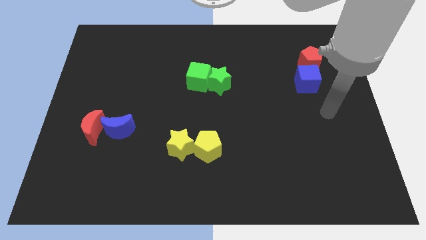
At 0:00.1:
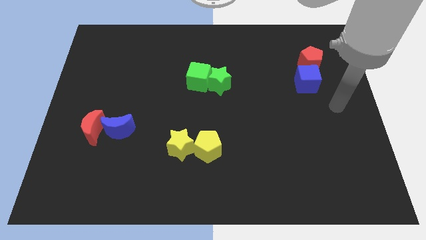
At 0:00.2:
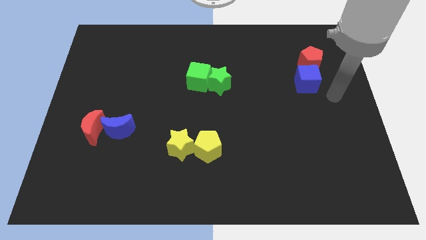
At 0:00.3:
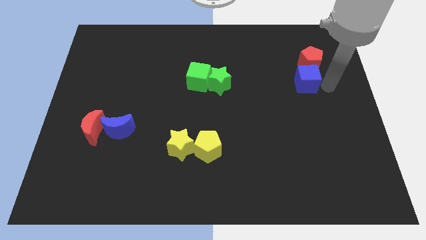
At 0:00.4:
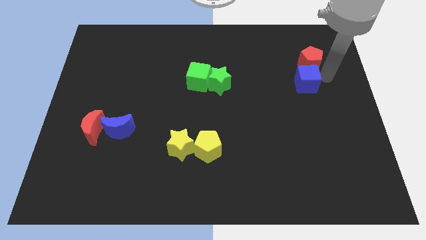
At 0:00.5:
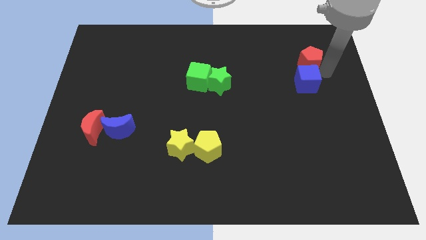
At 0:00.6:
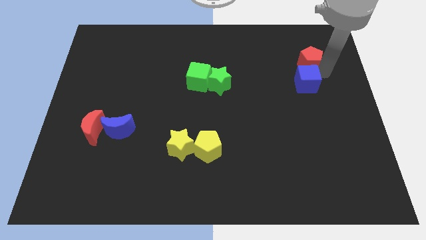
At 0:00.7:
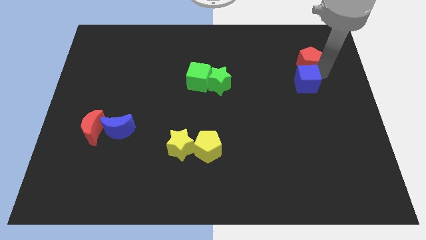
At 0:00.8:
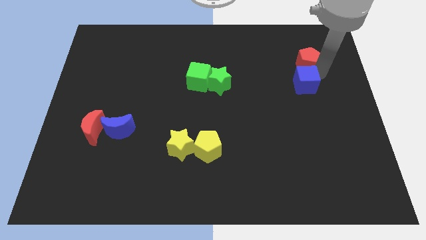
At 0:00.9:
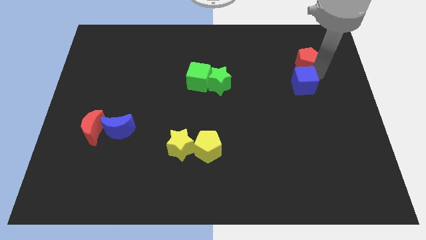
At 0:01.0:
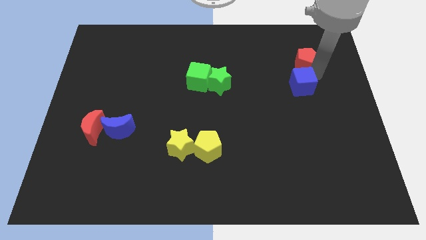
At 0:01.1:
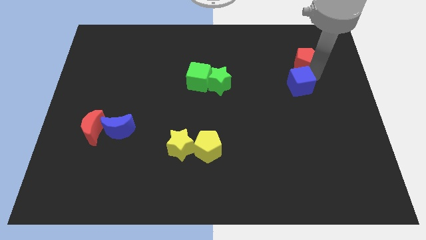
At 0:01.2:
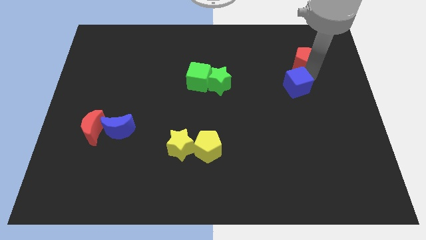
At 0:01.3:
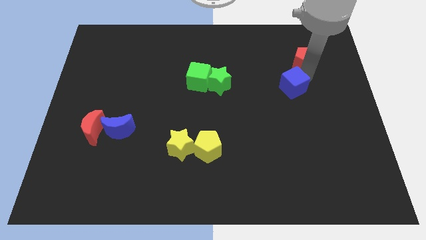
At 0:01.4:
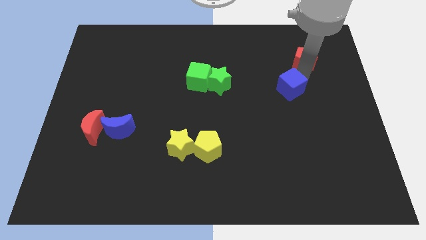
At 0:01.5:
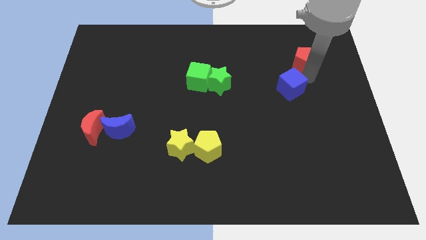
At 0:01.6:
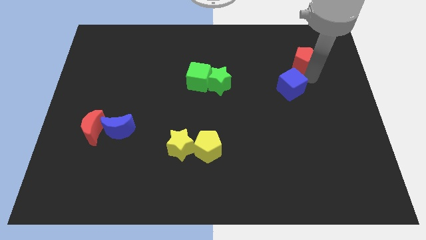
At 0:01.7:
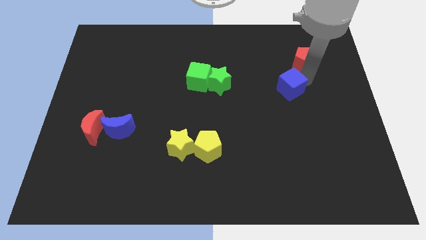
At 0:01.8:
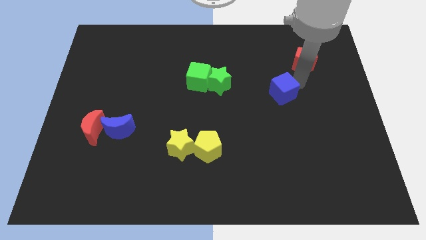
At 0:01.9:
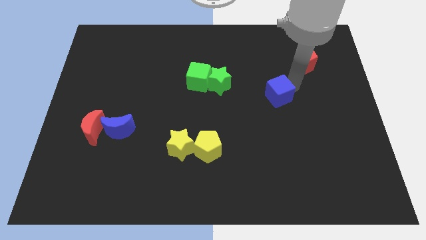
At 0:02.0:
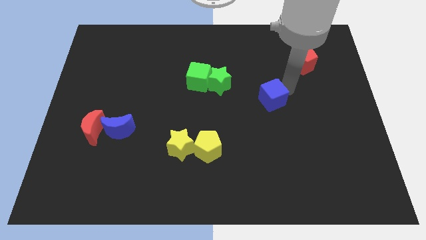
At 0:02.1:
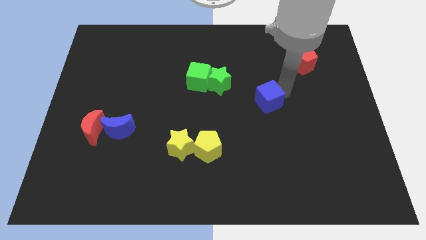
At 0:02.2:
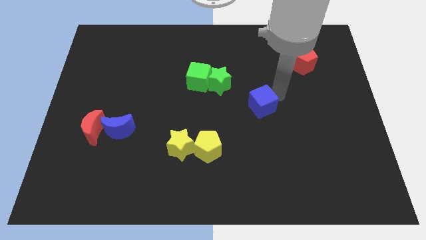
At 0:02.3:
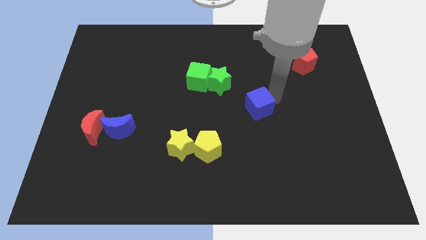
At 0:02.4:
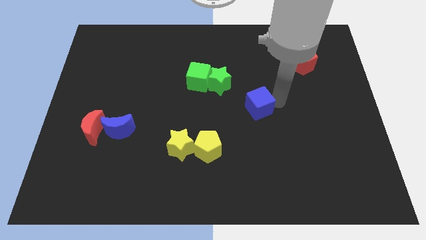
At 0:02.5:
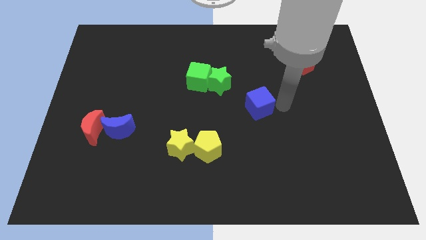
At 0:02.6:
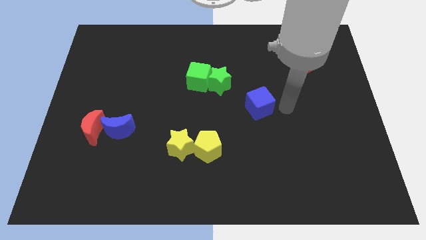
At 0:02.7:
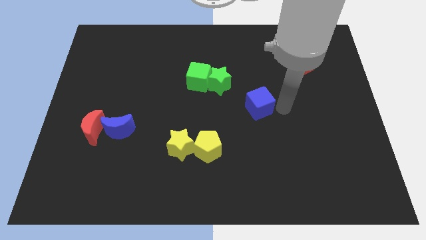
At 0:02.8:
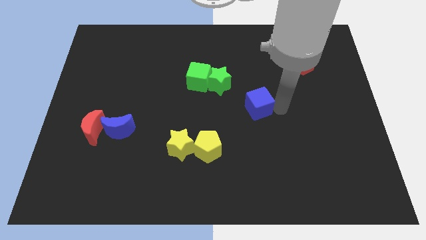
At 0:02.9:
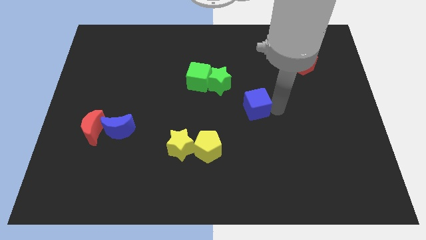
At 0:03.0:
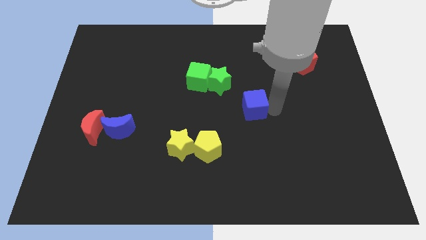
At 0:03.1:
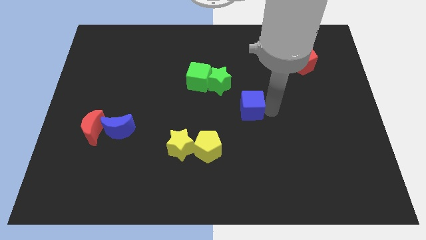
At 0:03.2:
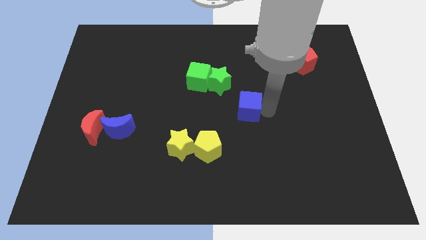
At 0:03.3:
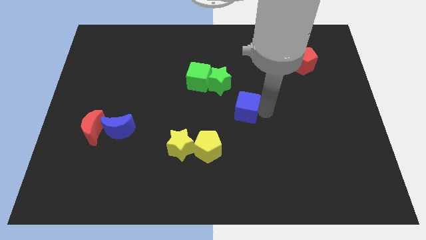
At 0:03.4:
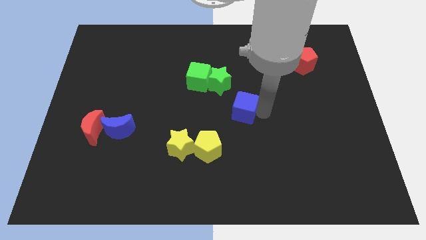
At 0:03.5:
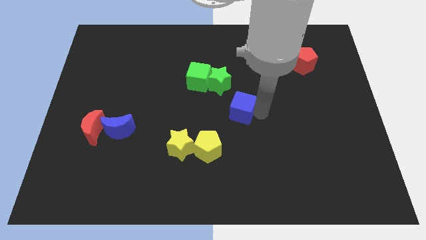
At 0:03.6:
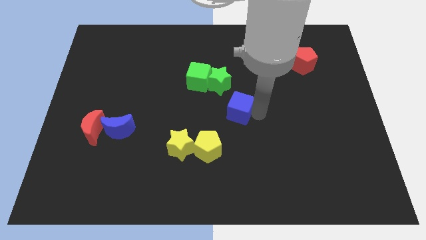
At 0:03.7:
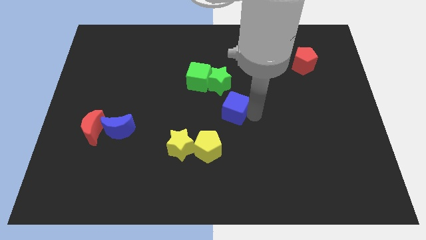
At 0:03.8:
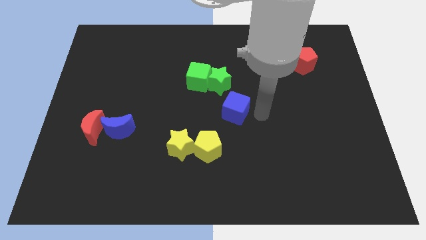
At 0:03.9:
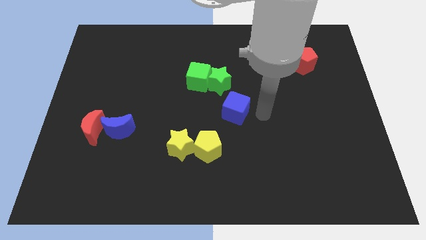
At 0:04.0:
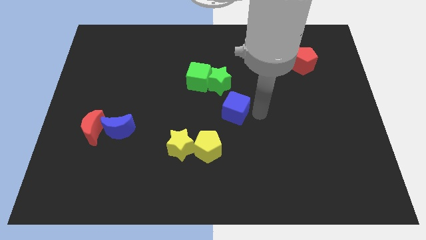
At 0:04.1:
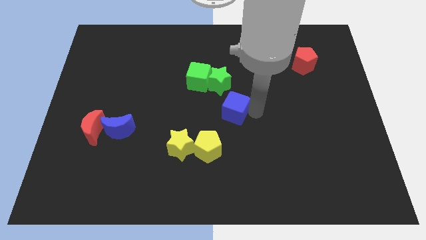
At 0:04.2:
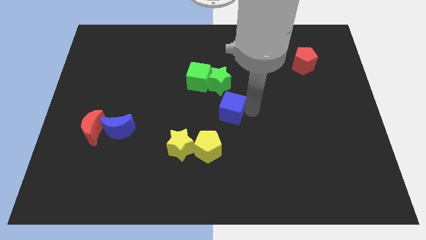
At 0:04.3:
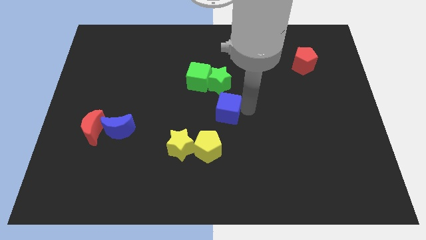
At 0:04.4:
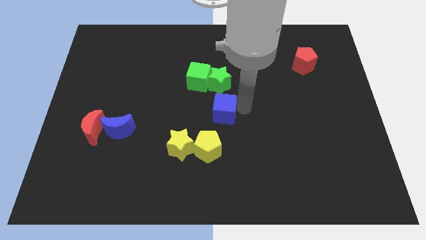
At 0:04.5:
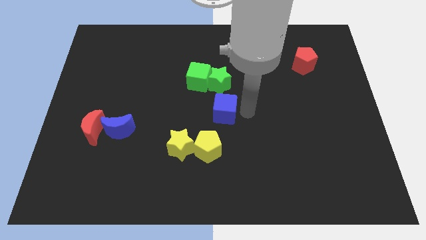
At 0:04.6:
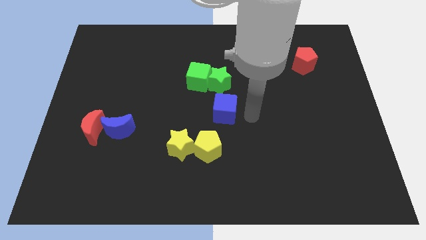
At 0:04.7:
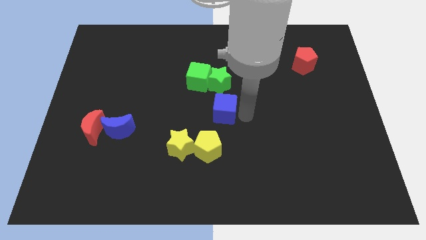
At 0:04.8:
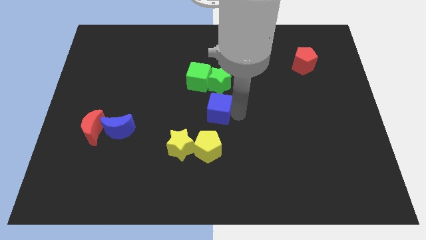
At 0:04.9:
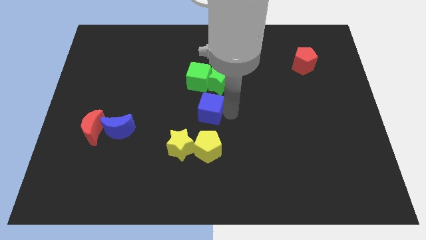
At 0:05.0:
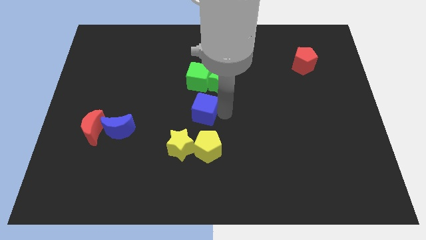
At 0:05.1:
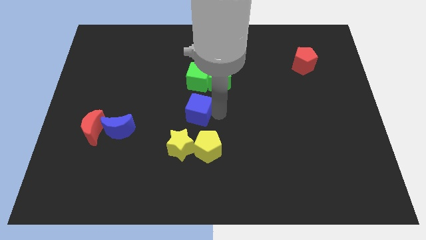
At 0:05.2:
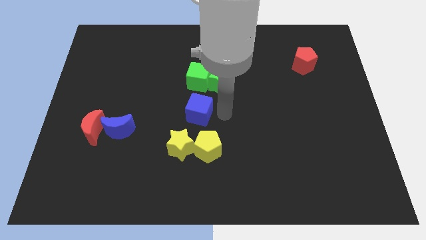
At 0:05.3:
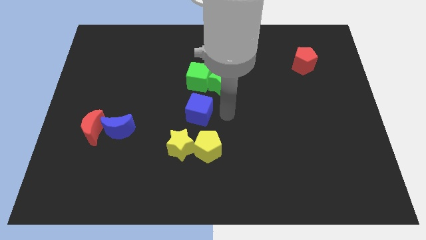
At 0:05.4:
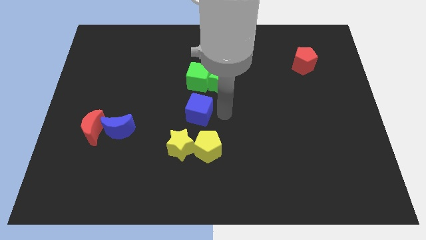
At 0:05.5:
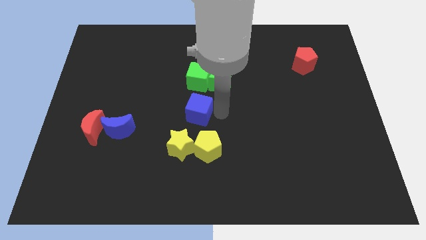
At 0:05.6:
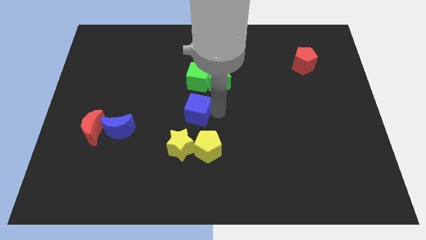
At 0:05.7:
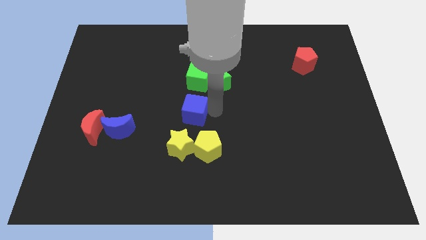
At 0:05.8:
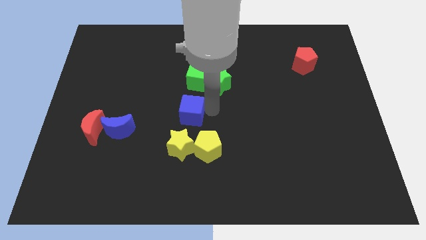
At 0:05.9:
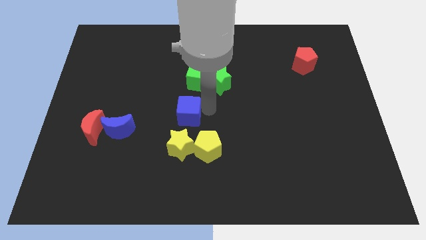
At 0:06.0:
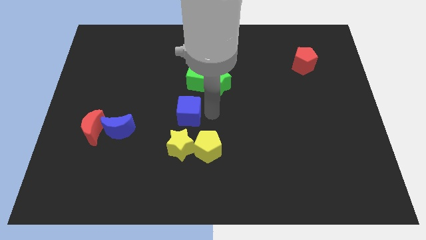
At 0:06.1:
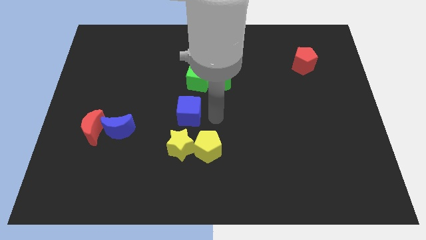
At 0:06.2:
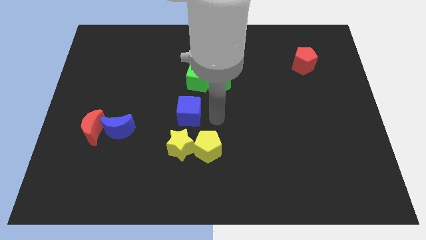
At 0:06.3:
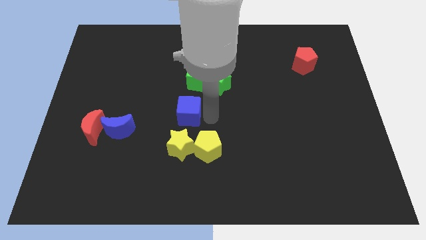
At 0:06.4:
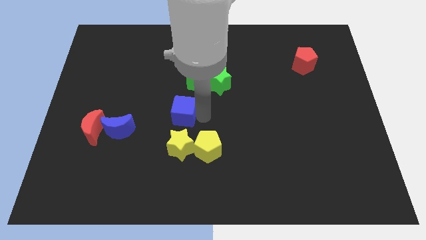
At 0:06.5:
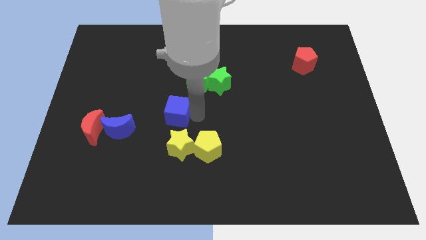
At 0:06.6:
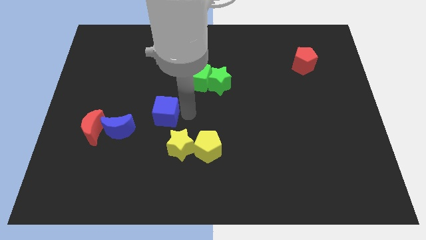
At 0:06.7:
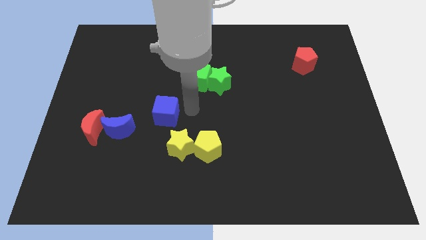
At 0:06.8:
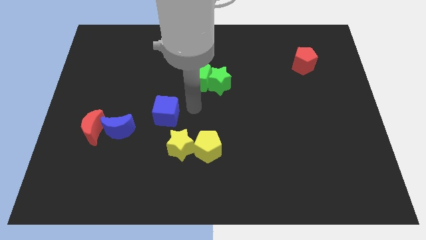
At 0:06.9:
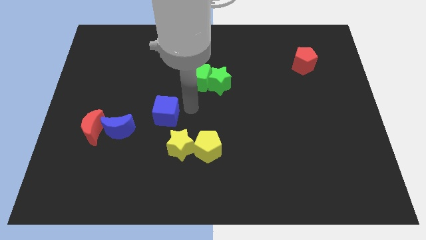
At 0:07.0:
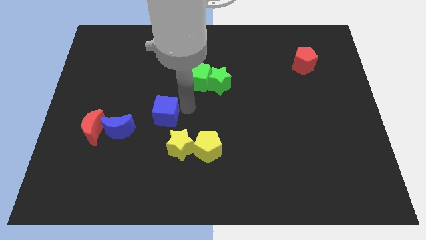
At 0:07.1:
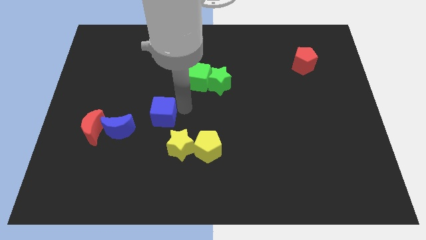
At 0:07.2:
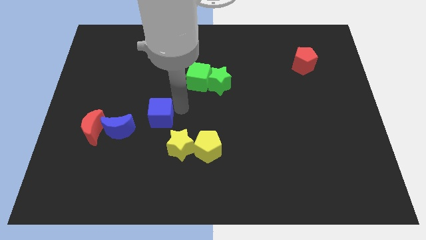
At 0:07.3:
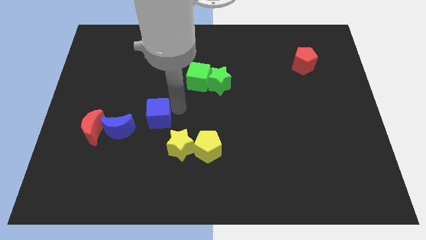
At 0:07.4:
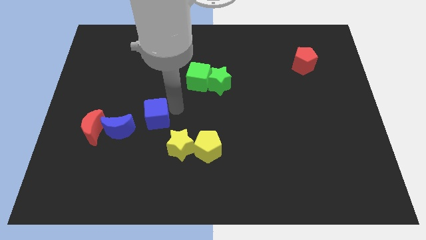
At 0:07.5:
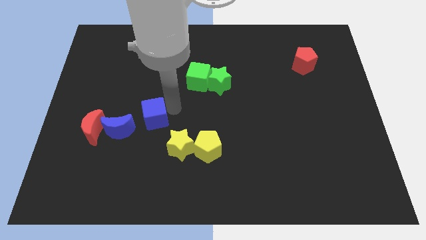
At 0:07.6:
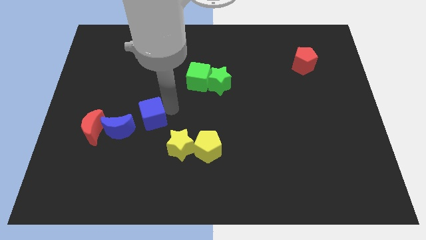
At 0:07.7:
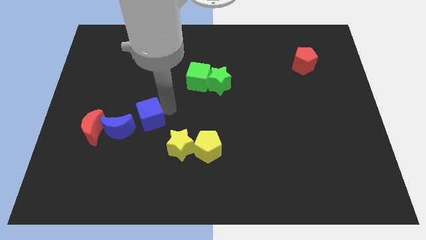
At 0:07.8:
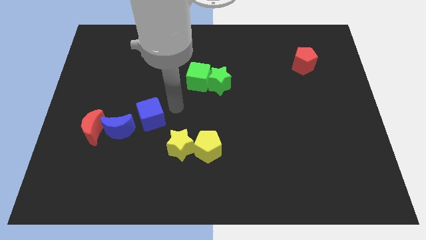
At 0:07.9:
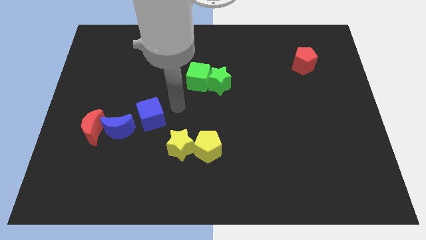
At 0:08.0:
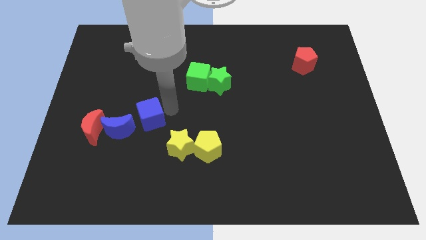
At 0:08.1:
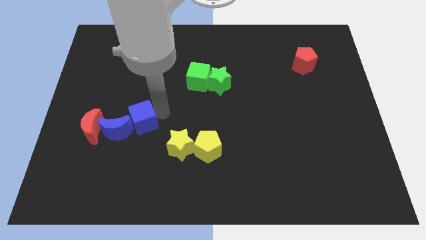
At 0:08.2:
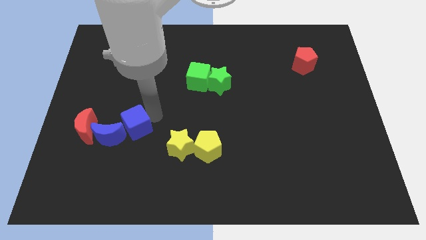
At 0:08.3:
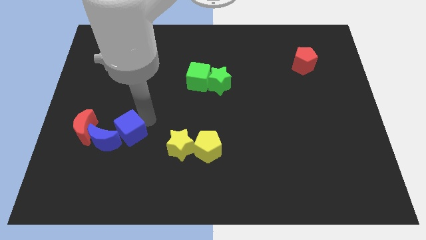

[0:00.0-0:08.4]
slide the blue cube close to the blue moon
